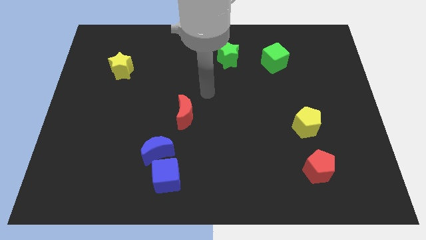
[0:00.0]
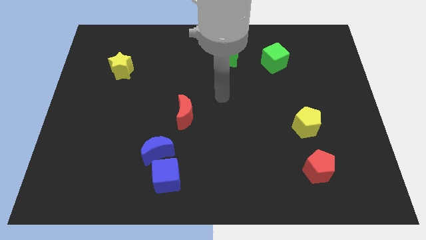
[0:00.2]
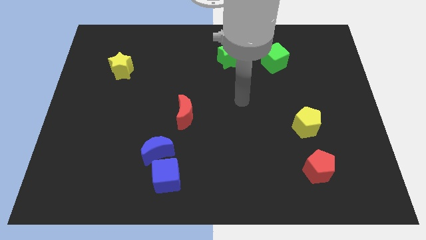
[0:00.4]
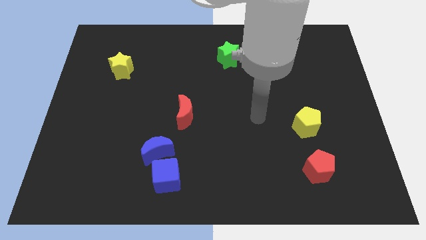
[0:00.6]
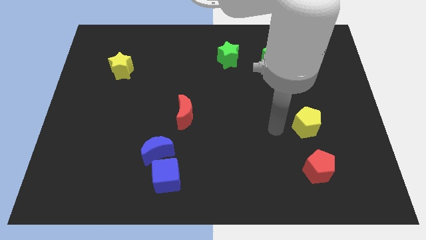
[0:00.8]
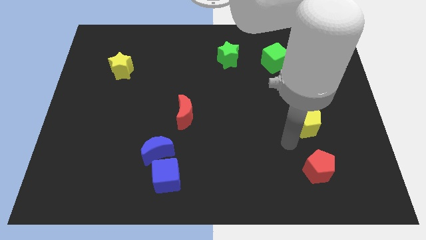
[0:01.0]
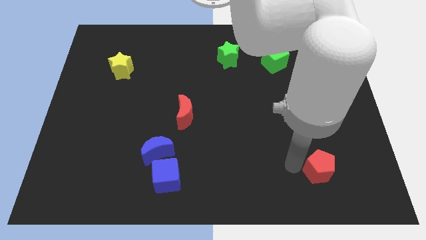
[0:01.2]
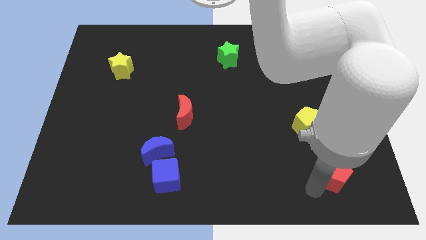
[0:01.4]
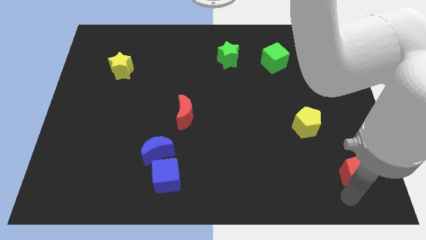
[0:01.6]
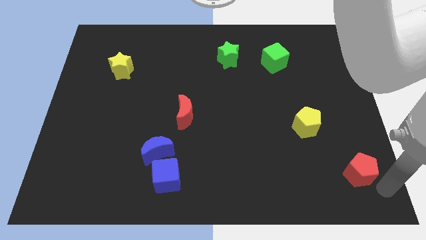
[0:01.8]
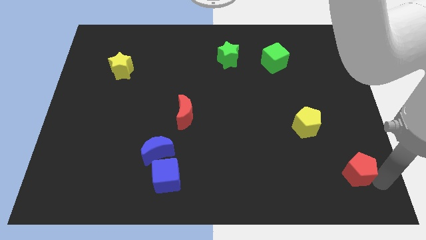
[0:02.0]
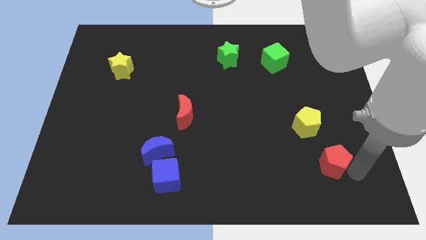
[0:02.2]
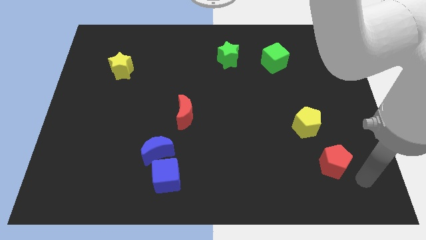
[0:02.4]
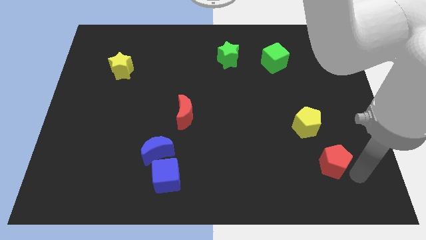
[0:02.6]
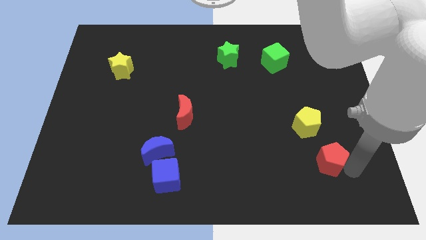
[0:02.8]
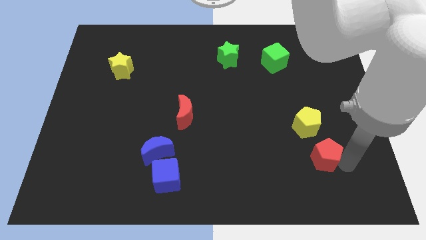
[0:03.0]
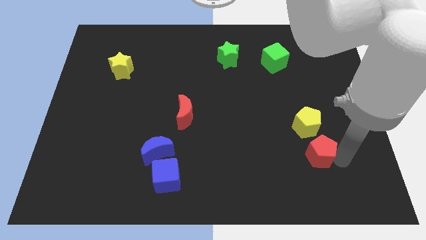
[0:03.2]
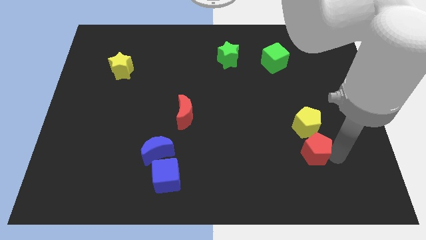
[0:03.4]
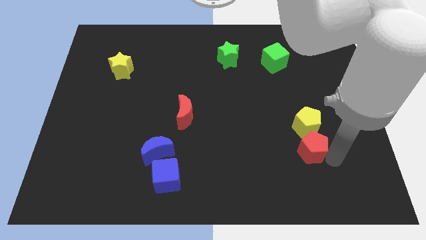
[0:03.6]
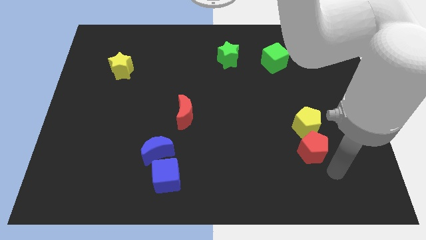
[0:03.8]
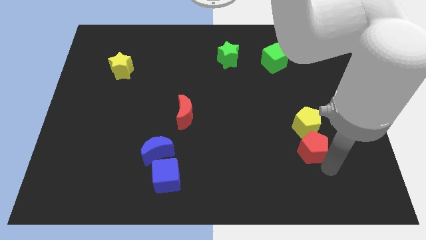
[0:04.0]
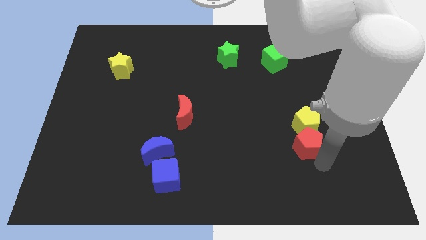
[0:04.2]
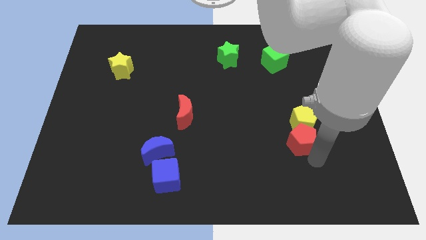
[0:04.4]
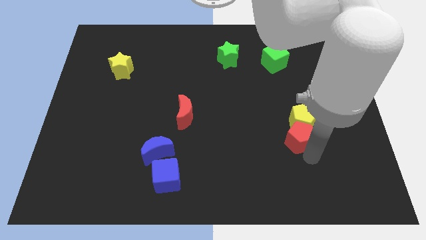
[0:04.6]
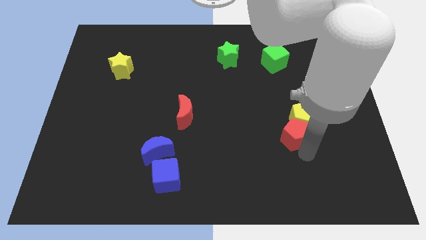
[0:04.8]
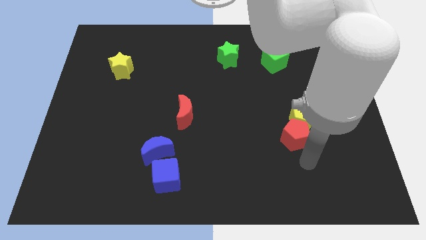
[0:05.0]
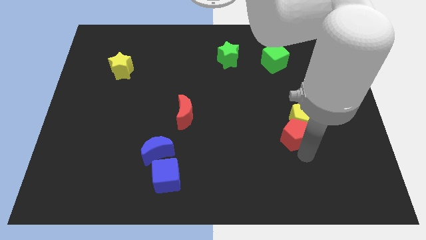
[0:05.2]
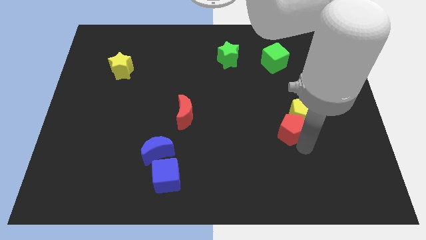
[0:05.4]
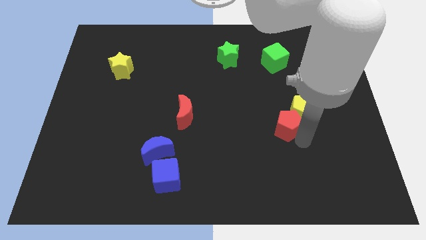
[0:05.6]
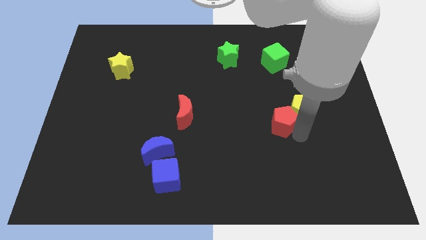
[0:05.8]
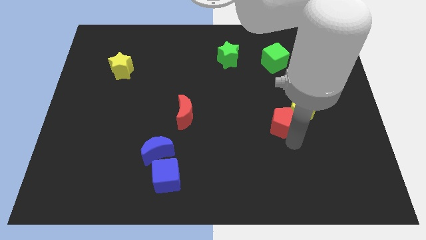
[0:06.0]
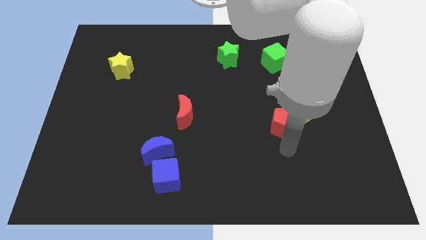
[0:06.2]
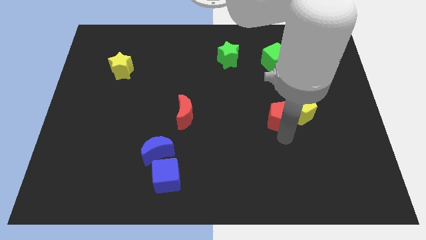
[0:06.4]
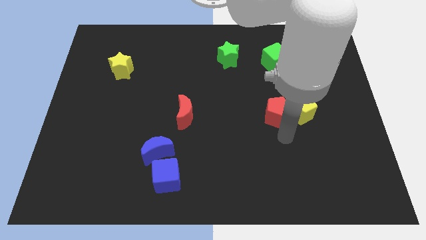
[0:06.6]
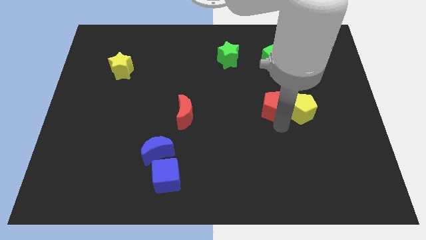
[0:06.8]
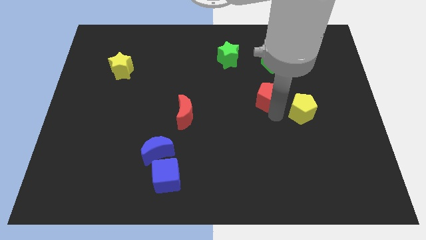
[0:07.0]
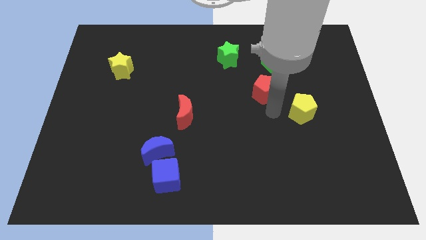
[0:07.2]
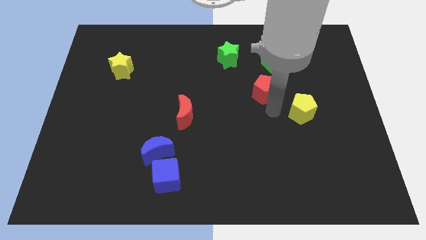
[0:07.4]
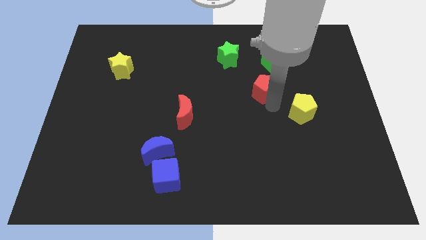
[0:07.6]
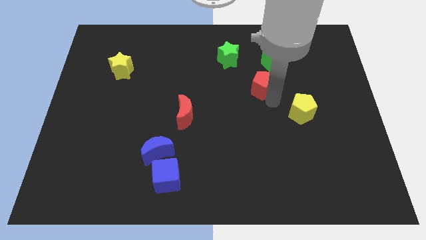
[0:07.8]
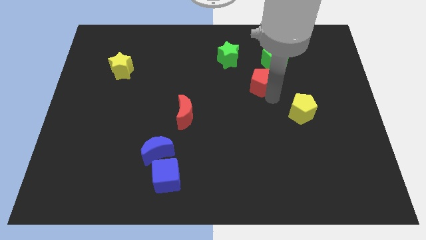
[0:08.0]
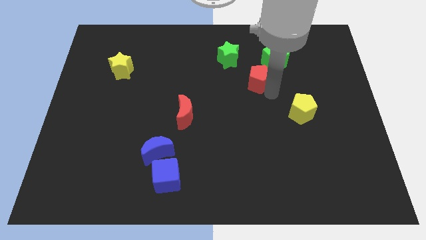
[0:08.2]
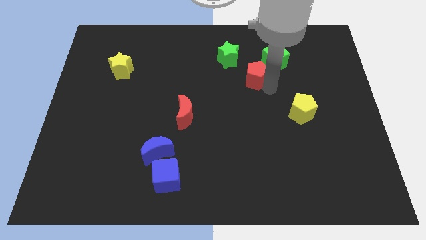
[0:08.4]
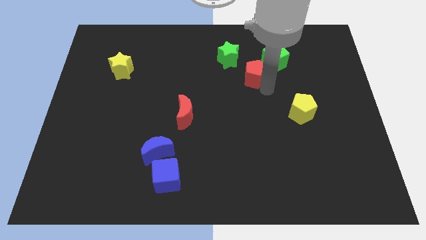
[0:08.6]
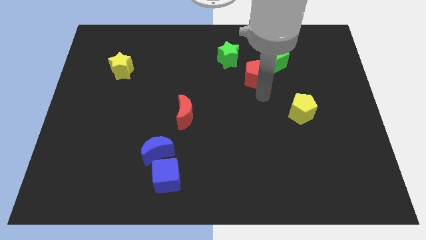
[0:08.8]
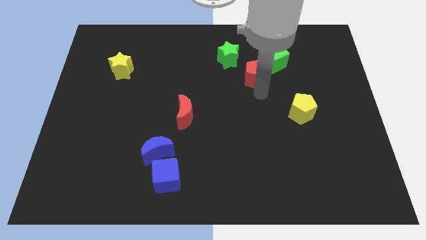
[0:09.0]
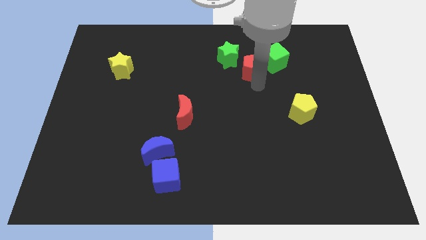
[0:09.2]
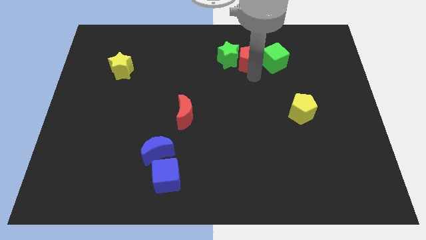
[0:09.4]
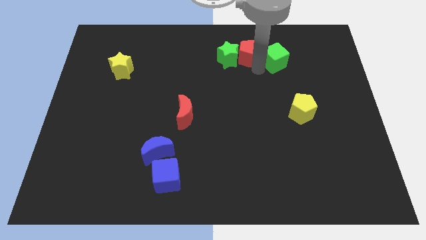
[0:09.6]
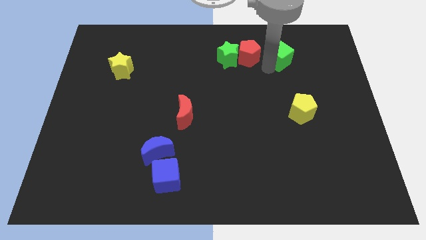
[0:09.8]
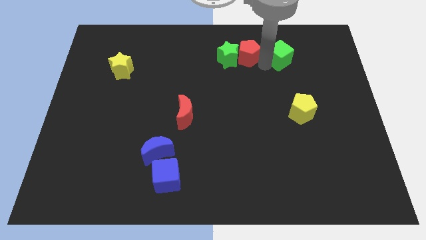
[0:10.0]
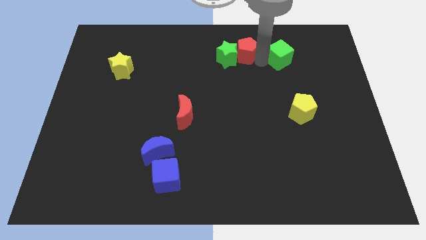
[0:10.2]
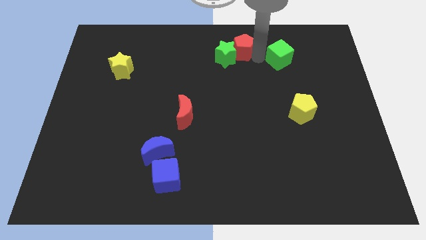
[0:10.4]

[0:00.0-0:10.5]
push the red pentagon to the towards your base
